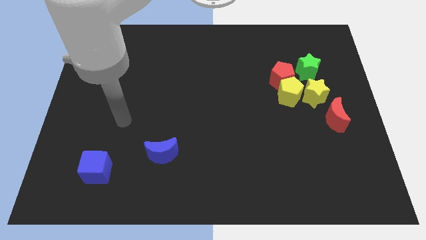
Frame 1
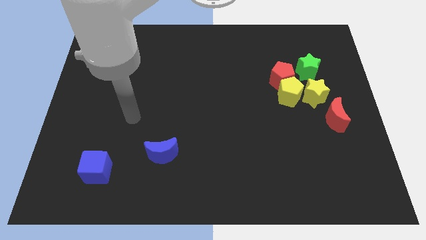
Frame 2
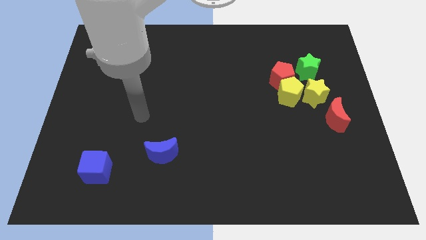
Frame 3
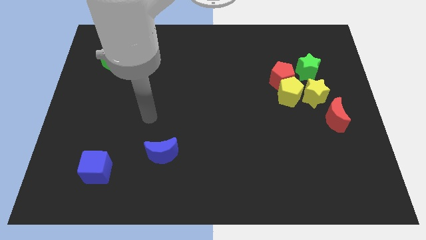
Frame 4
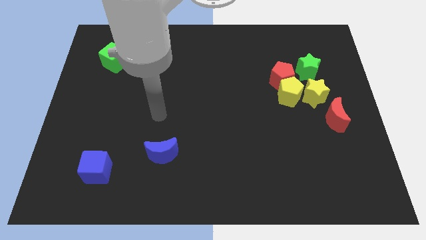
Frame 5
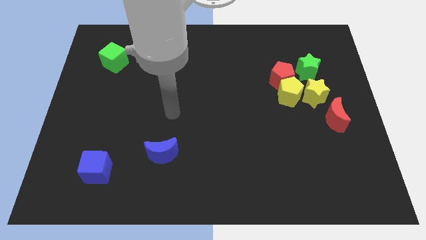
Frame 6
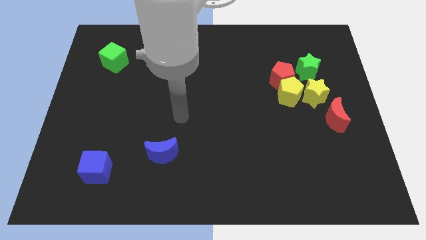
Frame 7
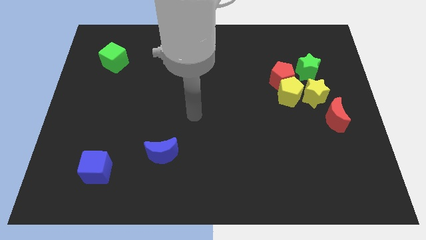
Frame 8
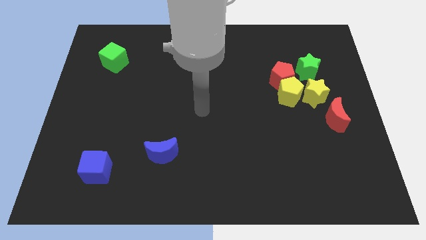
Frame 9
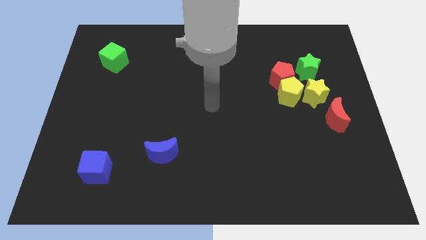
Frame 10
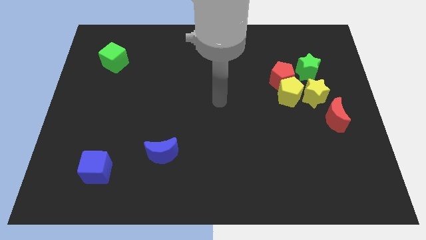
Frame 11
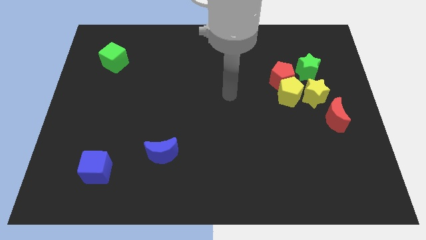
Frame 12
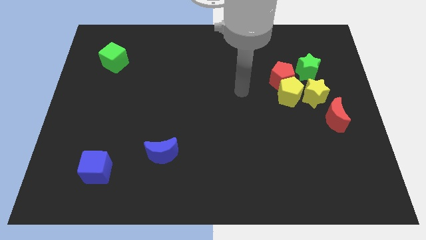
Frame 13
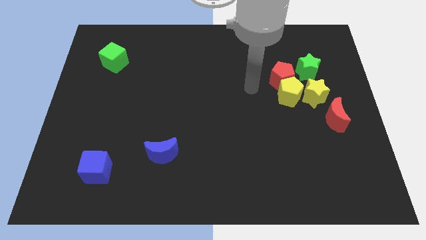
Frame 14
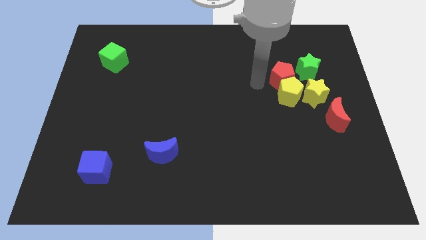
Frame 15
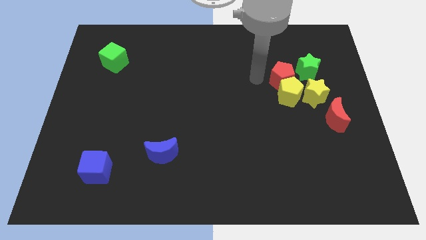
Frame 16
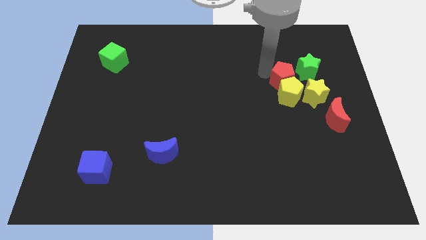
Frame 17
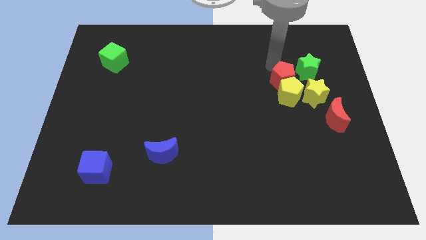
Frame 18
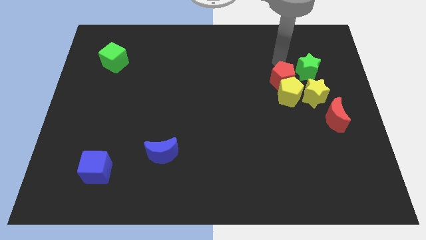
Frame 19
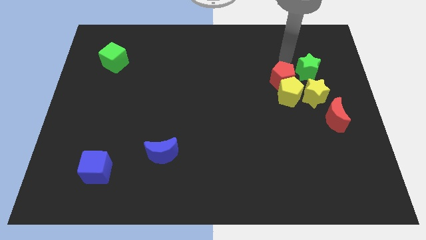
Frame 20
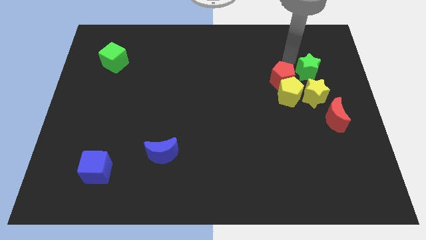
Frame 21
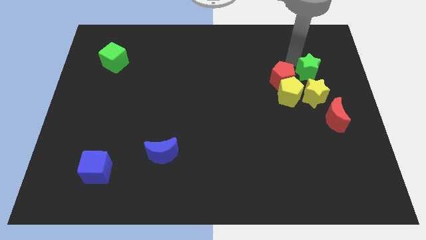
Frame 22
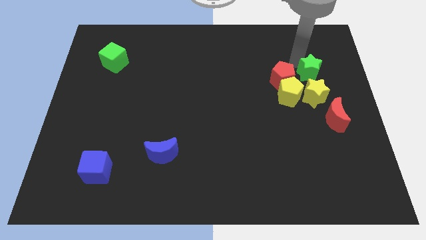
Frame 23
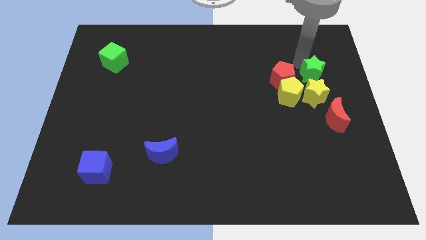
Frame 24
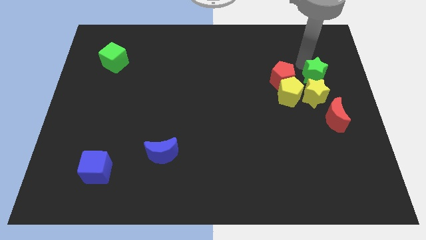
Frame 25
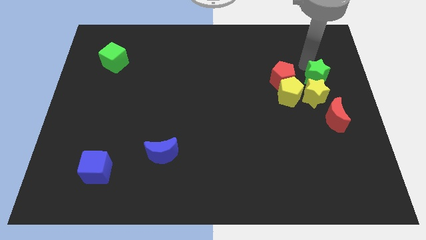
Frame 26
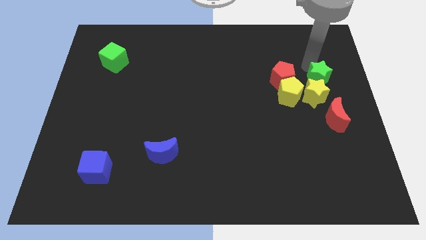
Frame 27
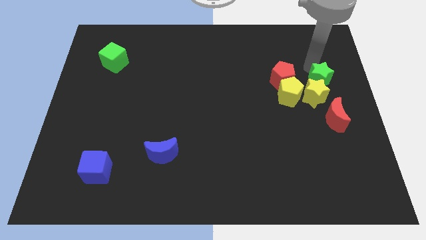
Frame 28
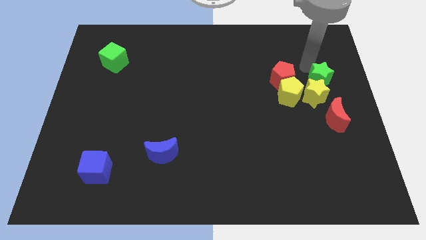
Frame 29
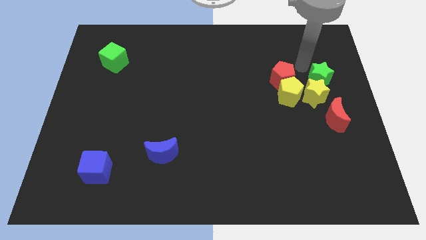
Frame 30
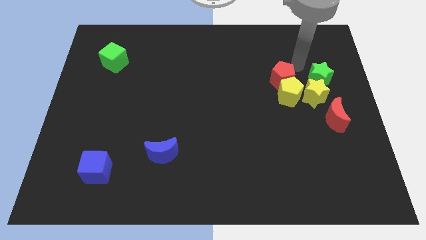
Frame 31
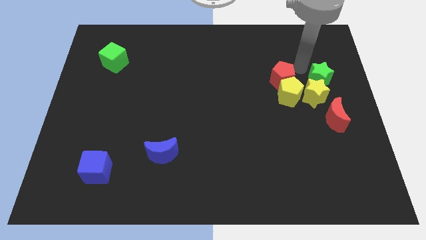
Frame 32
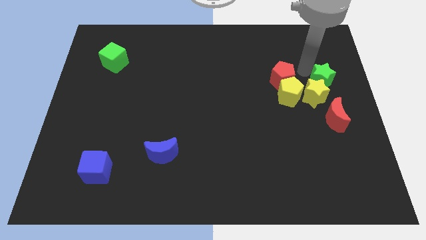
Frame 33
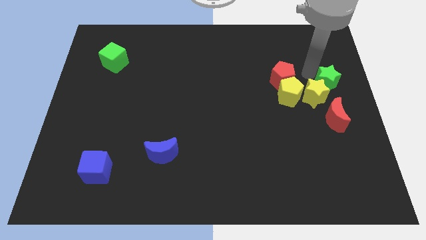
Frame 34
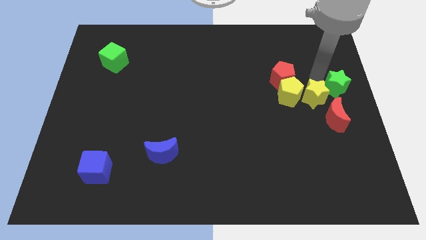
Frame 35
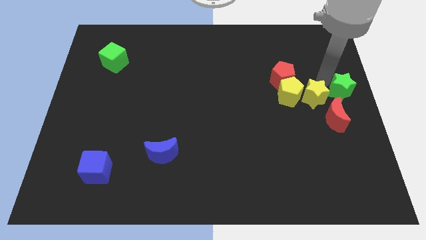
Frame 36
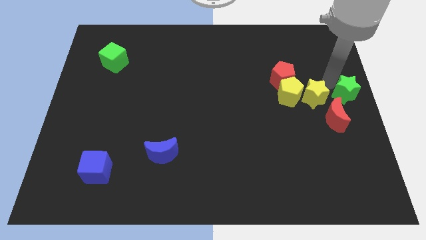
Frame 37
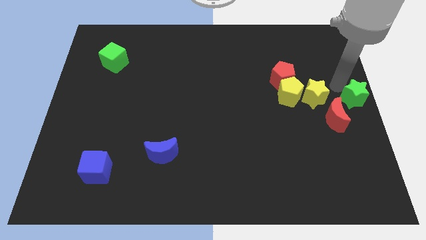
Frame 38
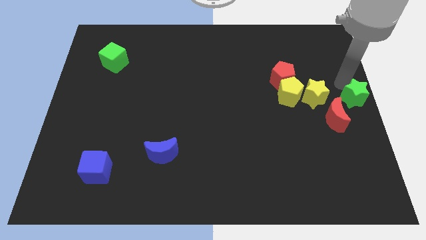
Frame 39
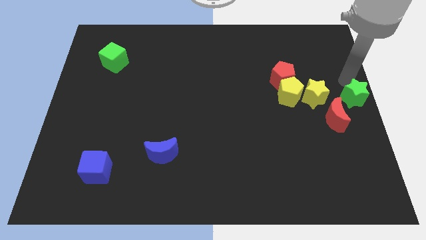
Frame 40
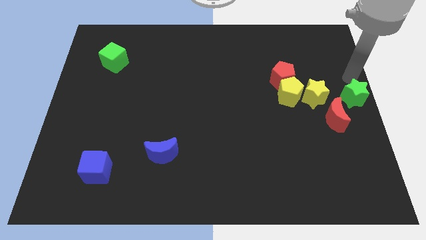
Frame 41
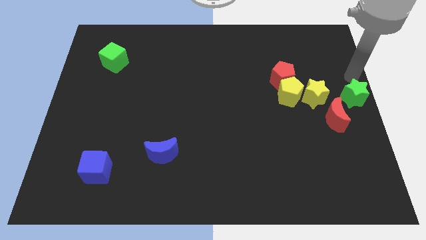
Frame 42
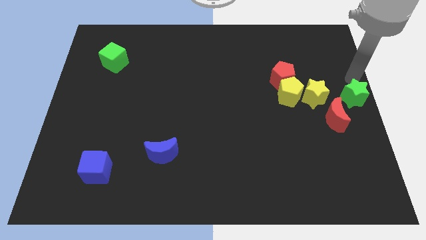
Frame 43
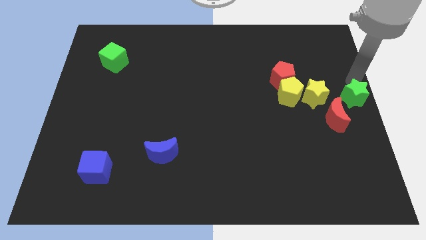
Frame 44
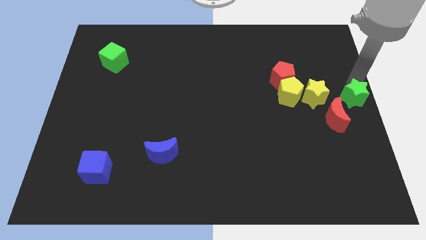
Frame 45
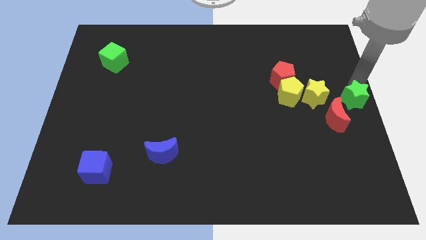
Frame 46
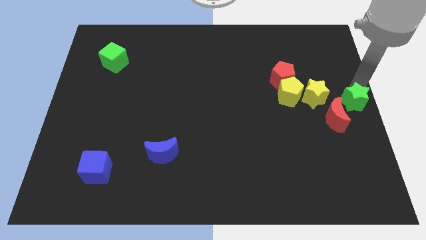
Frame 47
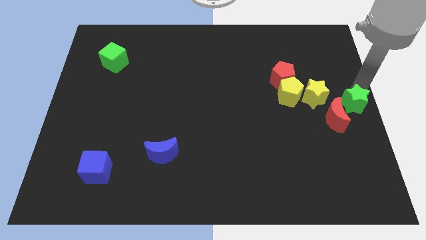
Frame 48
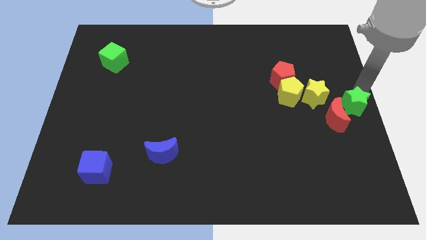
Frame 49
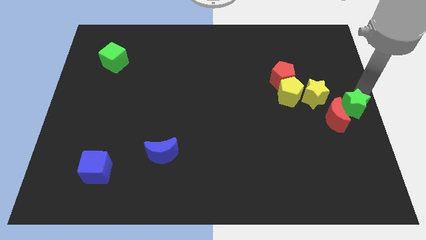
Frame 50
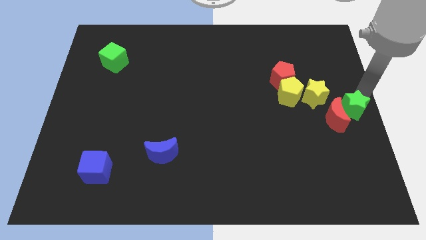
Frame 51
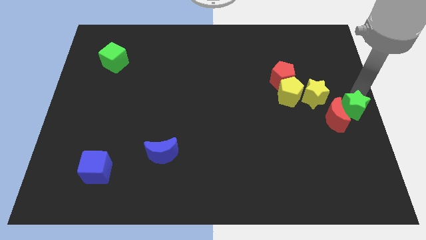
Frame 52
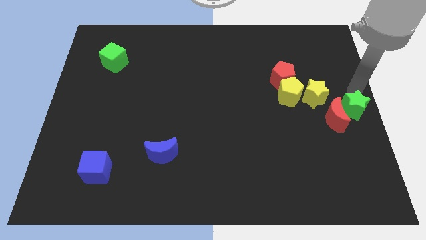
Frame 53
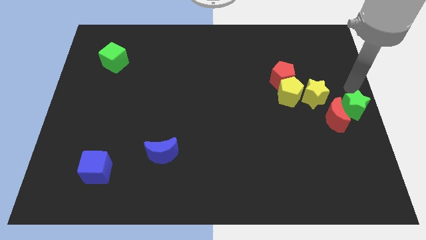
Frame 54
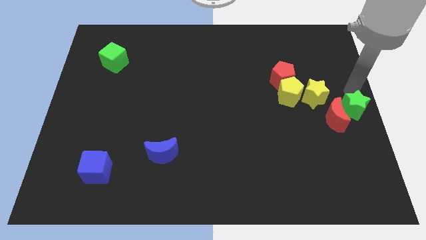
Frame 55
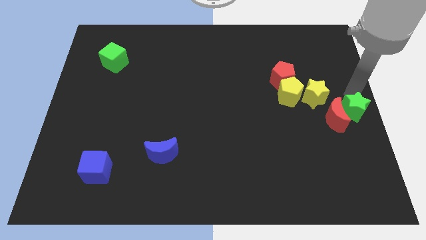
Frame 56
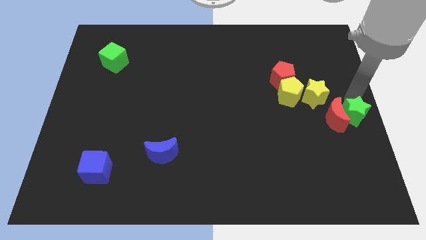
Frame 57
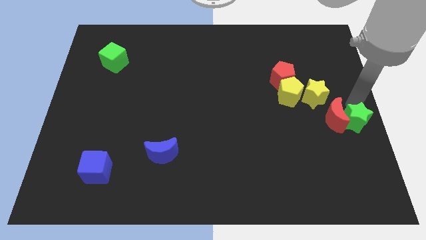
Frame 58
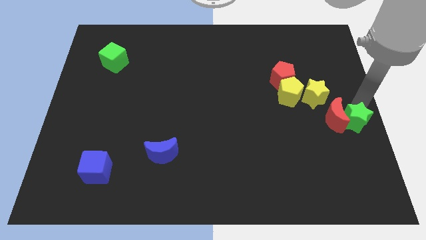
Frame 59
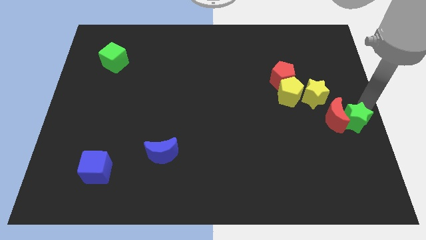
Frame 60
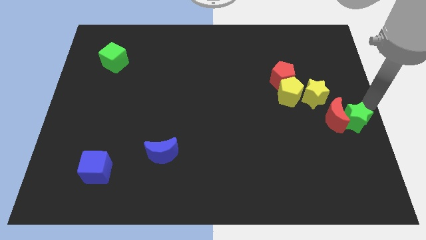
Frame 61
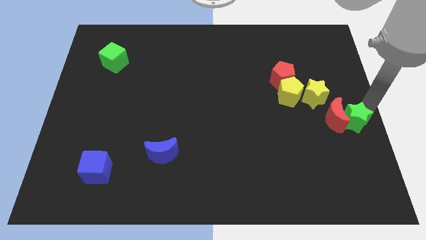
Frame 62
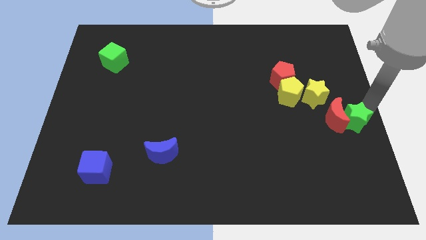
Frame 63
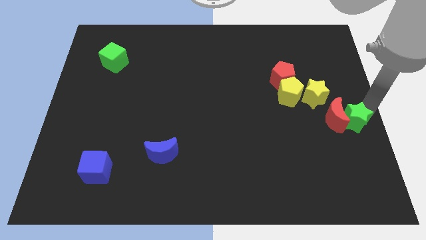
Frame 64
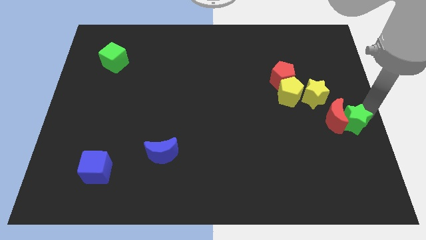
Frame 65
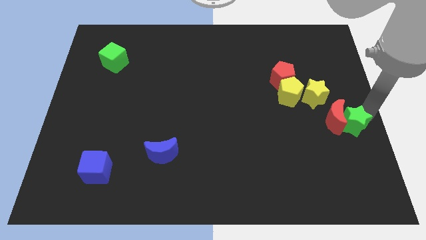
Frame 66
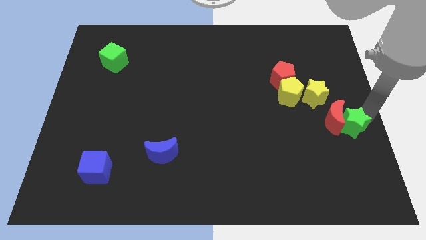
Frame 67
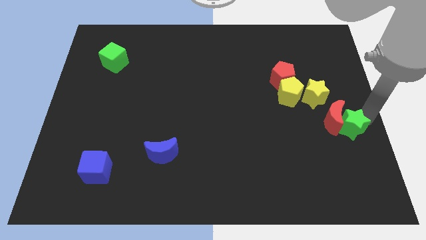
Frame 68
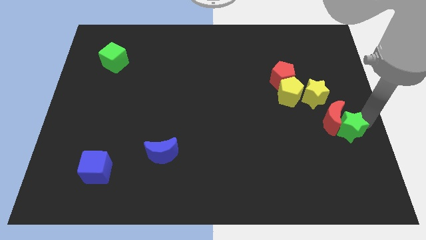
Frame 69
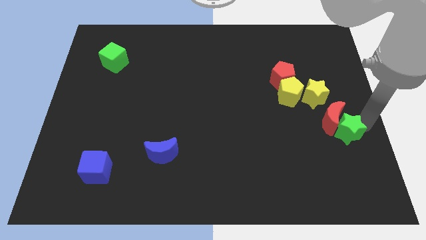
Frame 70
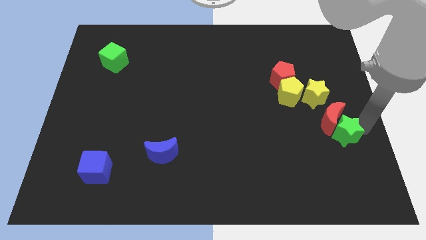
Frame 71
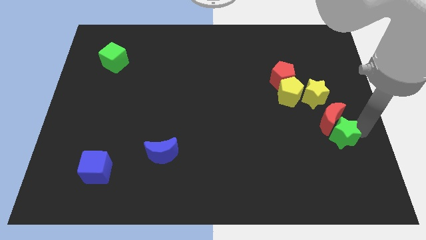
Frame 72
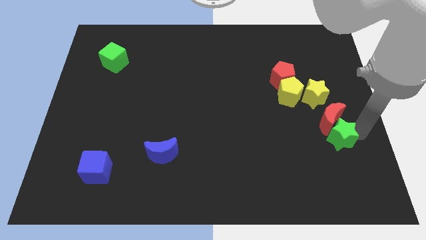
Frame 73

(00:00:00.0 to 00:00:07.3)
slide the green star to the bottom left of the red moon

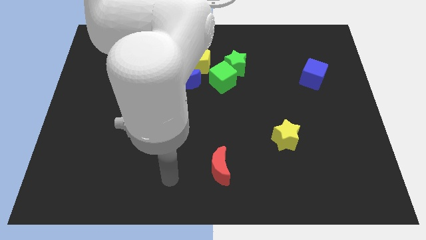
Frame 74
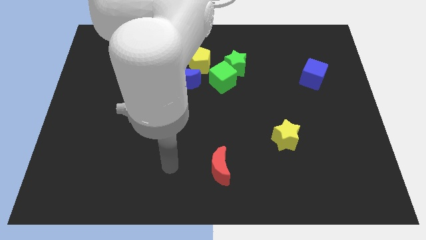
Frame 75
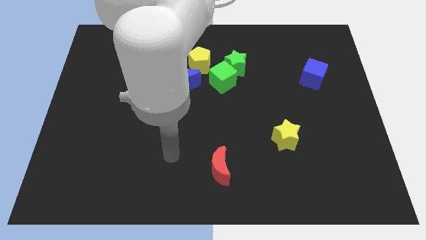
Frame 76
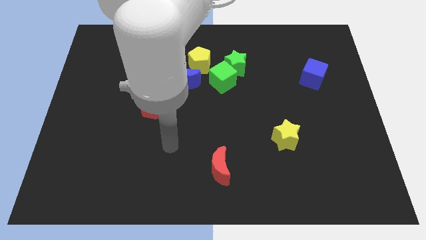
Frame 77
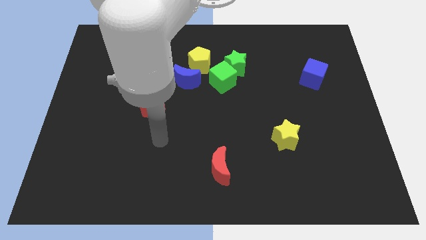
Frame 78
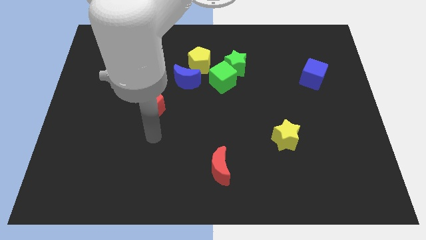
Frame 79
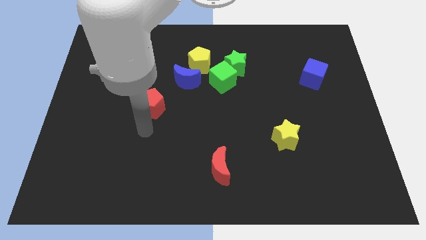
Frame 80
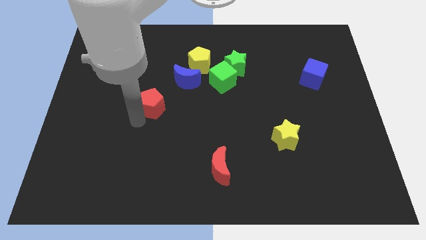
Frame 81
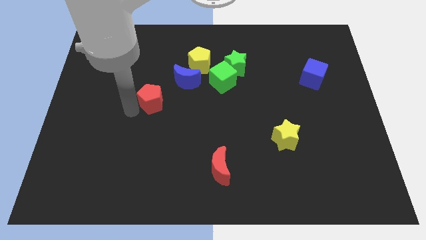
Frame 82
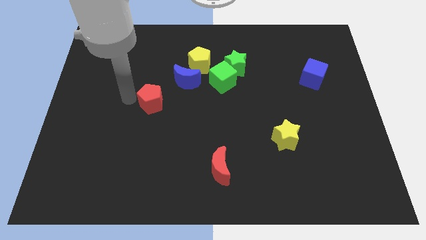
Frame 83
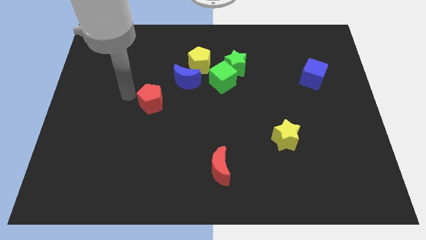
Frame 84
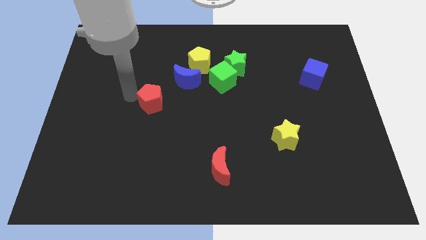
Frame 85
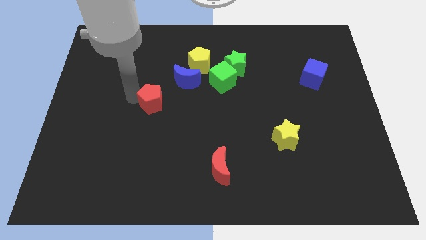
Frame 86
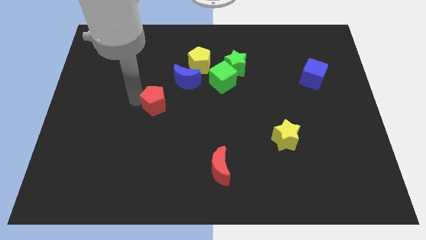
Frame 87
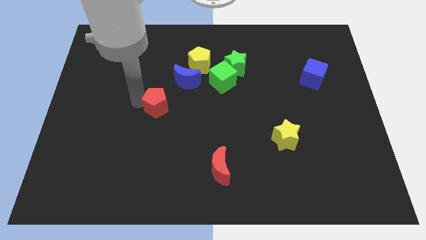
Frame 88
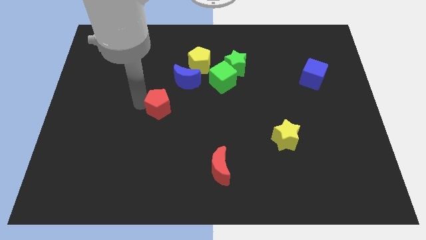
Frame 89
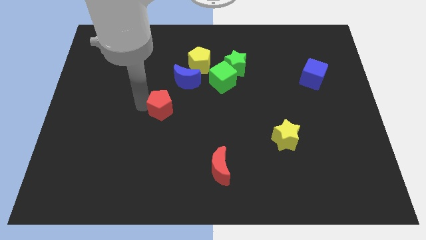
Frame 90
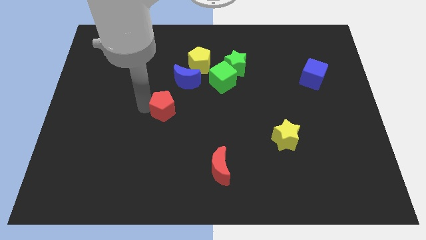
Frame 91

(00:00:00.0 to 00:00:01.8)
move the red pentagon to the bottom side of the blue moon
